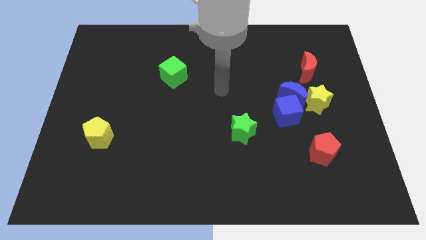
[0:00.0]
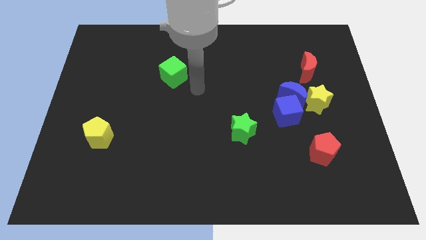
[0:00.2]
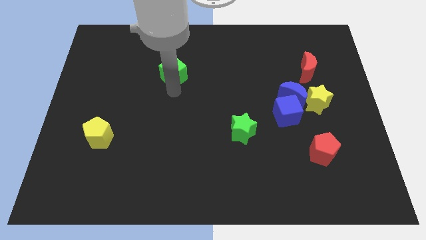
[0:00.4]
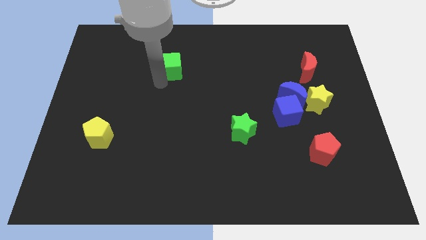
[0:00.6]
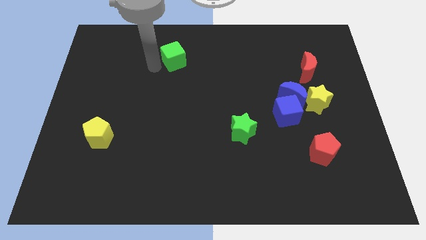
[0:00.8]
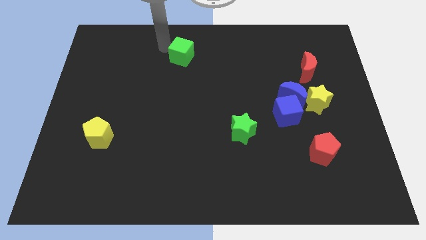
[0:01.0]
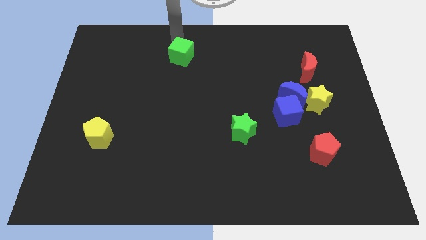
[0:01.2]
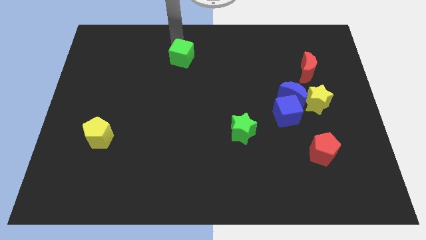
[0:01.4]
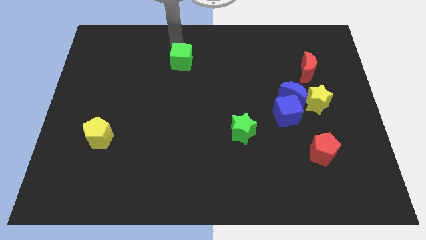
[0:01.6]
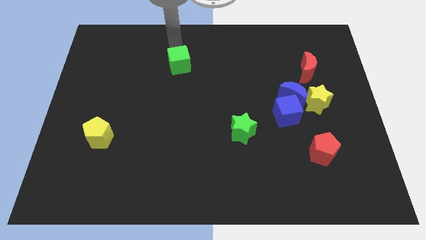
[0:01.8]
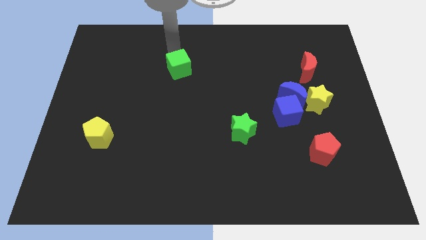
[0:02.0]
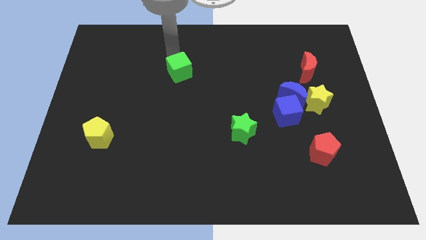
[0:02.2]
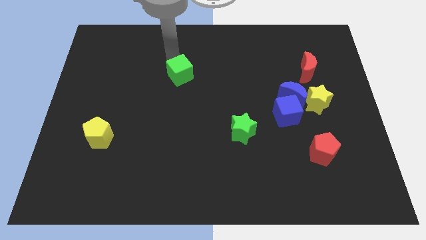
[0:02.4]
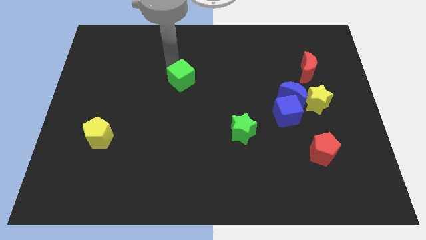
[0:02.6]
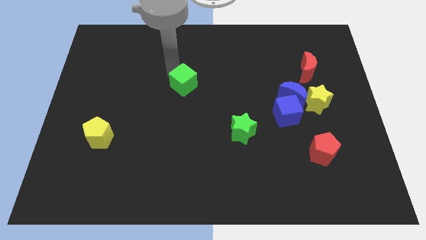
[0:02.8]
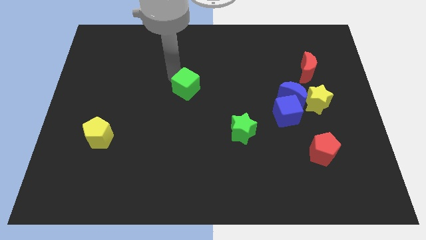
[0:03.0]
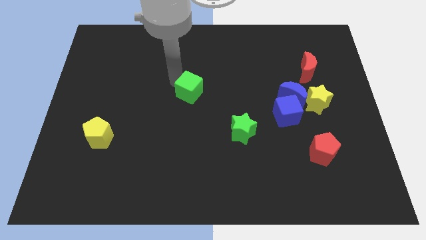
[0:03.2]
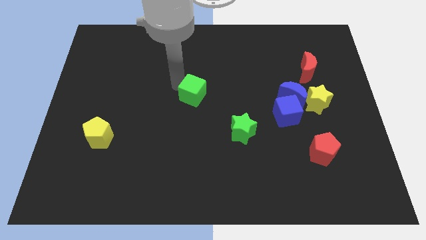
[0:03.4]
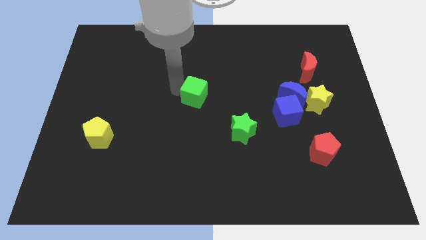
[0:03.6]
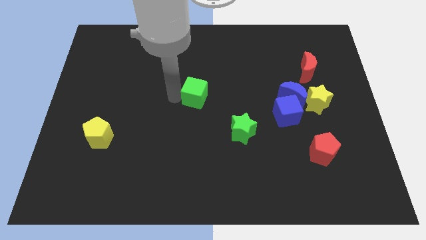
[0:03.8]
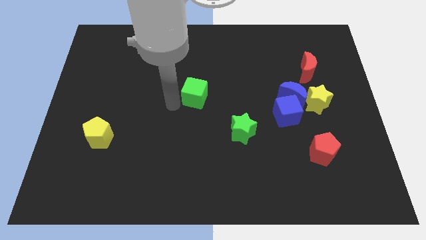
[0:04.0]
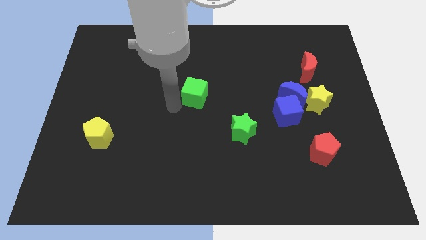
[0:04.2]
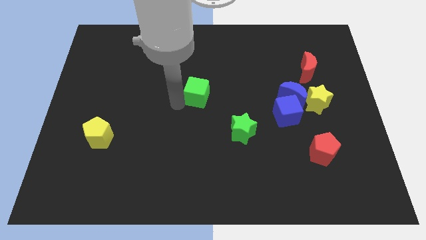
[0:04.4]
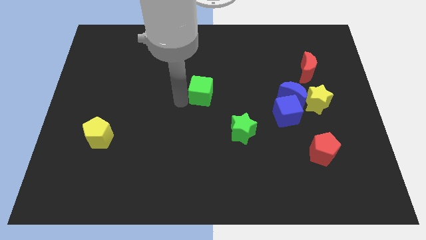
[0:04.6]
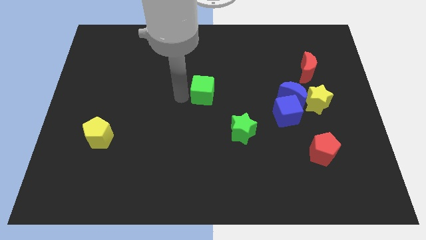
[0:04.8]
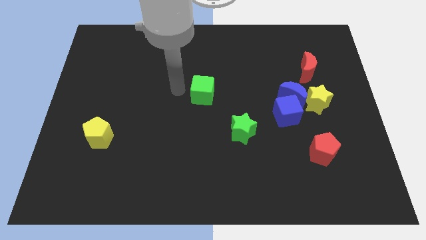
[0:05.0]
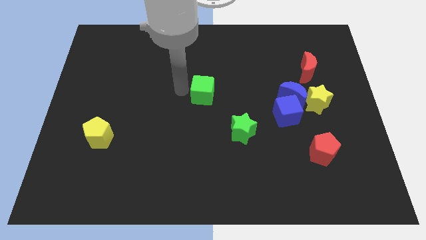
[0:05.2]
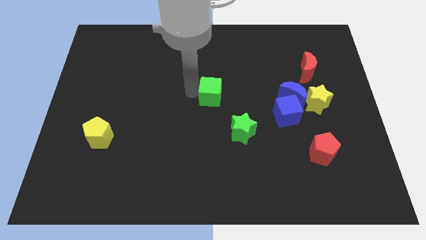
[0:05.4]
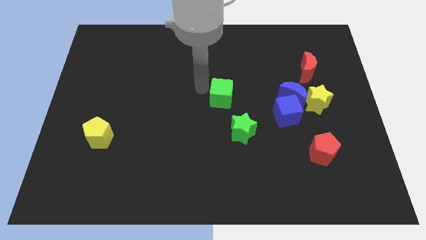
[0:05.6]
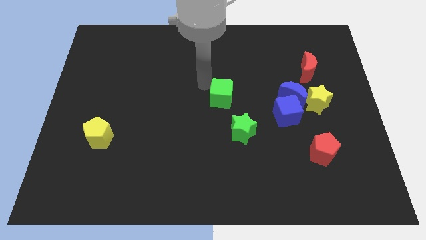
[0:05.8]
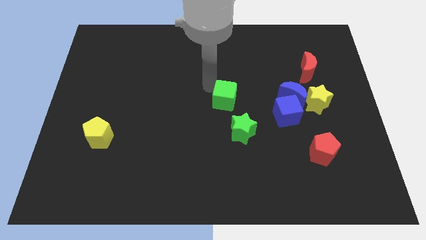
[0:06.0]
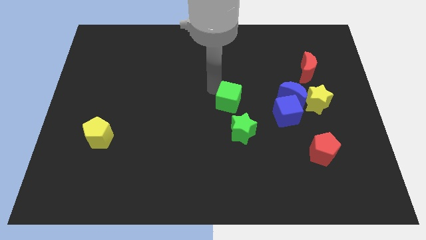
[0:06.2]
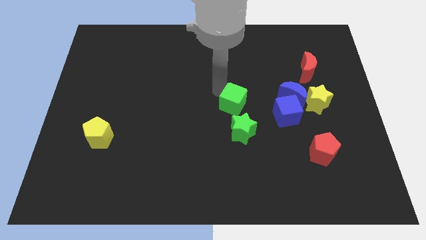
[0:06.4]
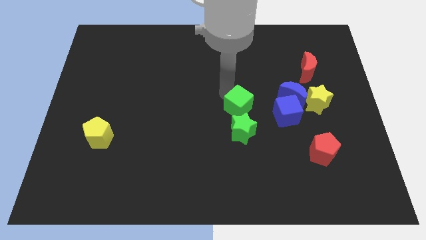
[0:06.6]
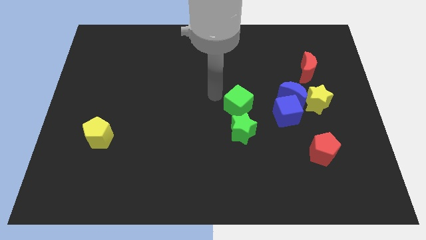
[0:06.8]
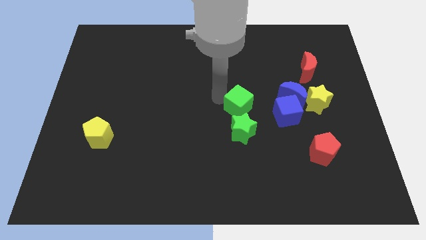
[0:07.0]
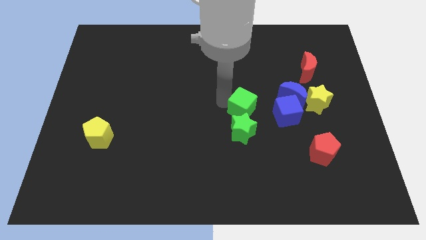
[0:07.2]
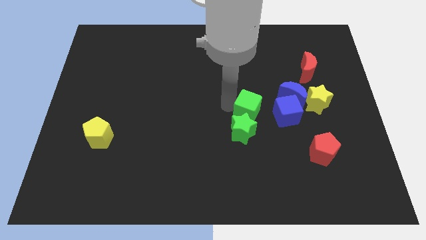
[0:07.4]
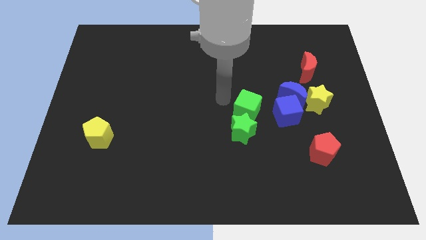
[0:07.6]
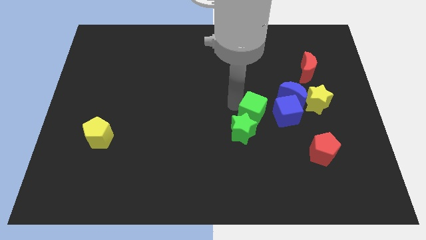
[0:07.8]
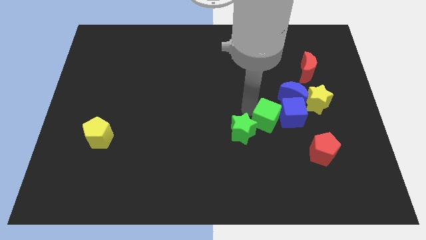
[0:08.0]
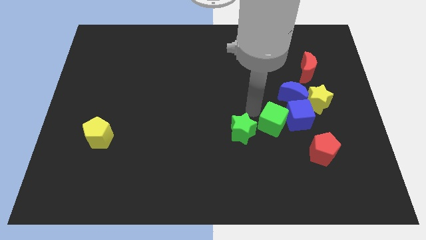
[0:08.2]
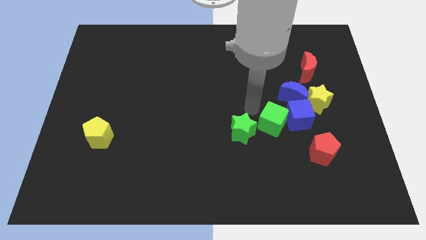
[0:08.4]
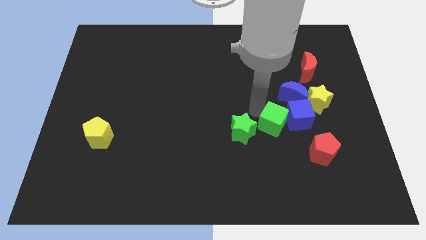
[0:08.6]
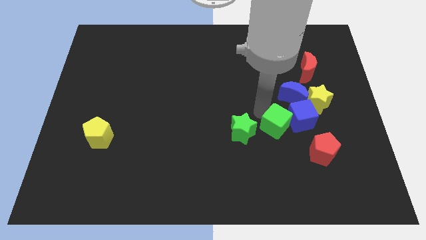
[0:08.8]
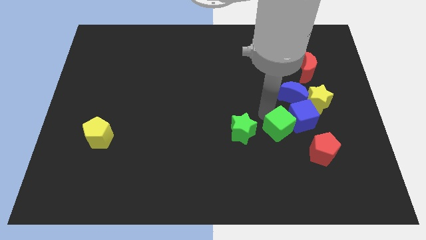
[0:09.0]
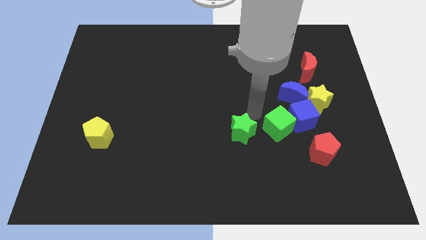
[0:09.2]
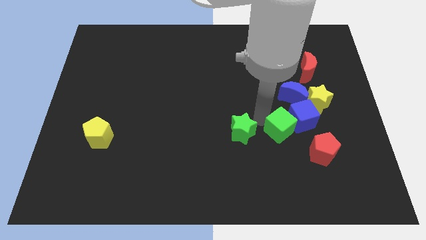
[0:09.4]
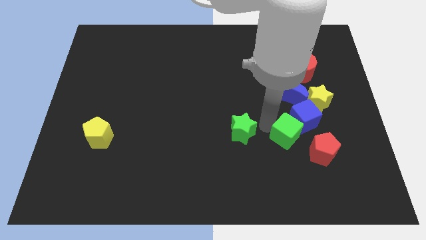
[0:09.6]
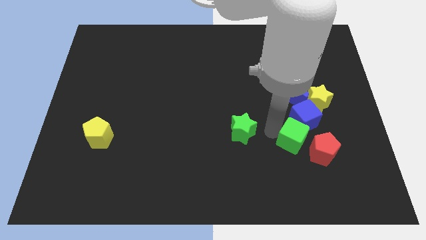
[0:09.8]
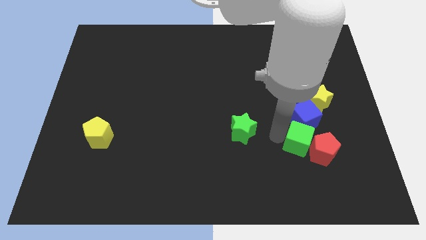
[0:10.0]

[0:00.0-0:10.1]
push the green cube next to the red pentagon

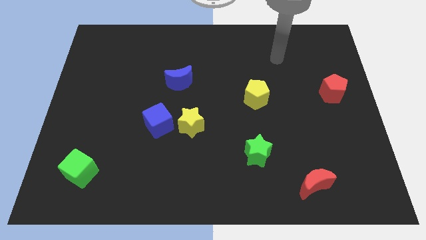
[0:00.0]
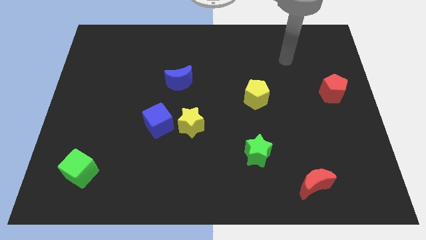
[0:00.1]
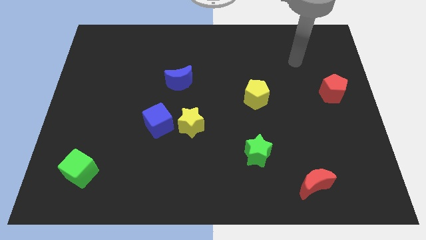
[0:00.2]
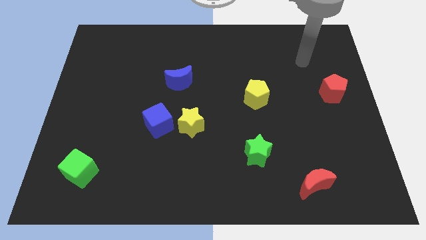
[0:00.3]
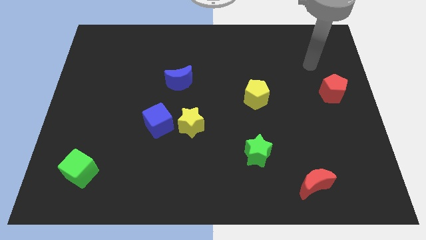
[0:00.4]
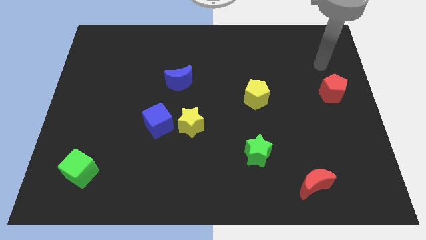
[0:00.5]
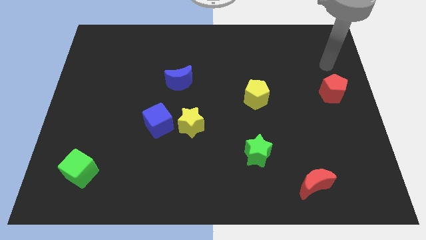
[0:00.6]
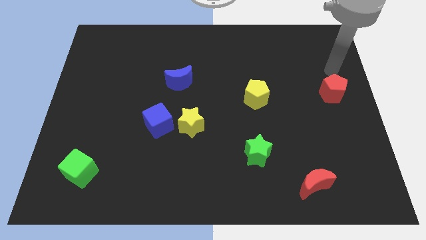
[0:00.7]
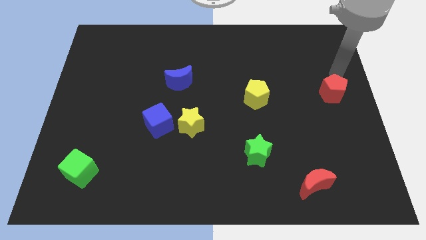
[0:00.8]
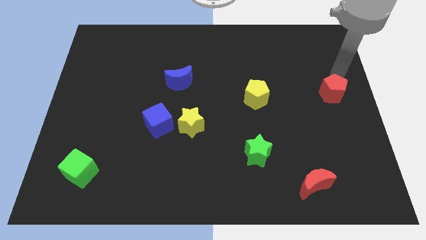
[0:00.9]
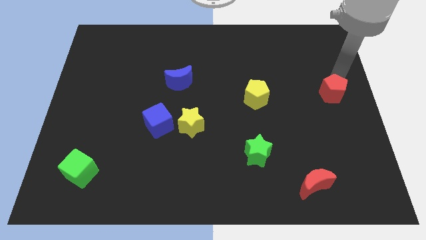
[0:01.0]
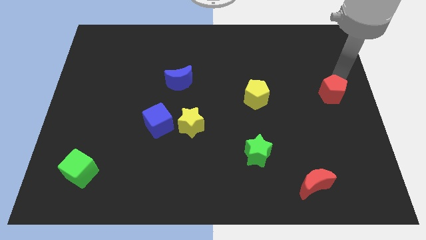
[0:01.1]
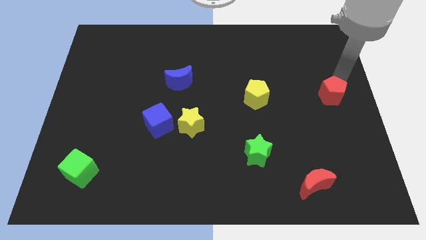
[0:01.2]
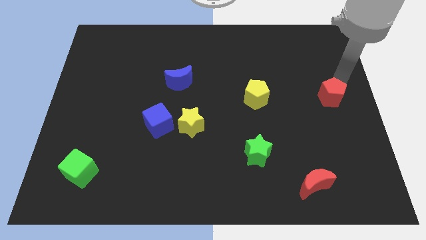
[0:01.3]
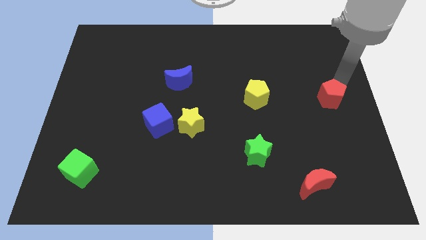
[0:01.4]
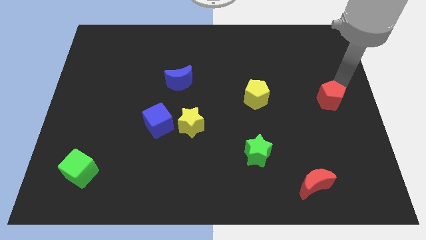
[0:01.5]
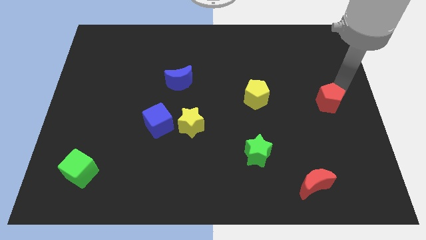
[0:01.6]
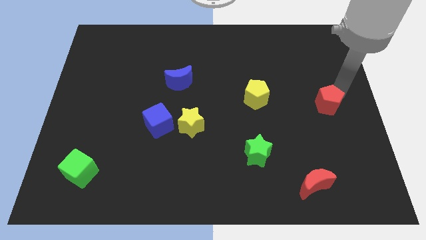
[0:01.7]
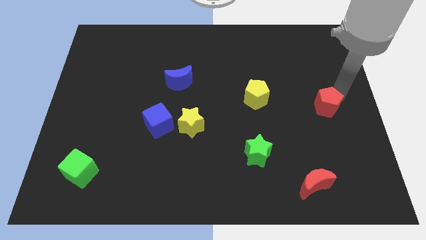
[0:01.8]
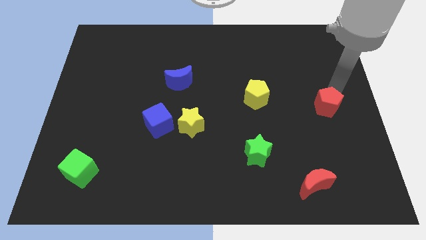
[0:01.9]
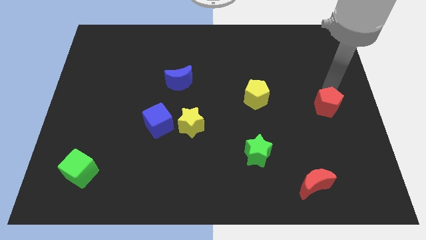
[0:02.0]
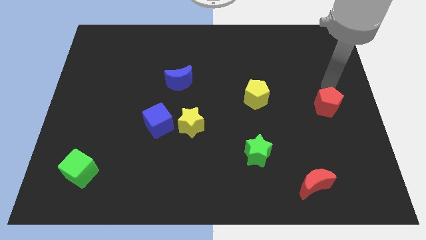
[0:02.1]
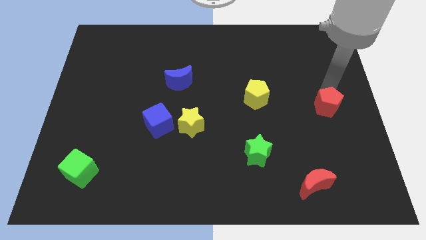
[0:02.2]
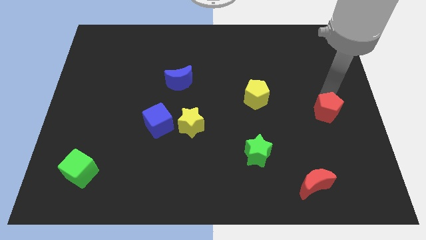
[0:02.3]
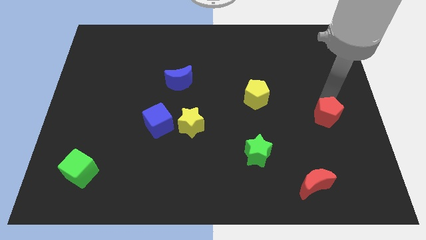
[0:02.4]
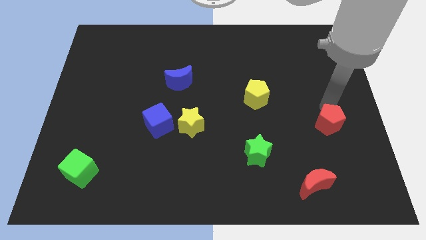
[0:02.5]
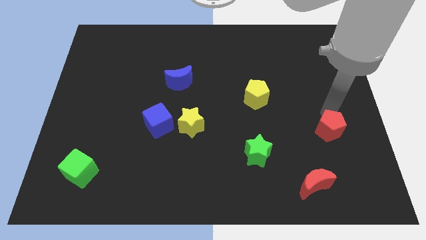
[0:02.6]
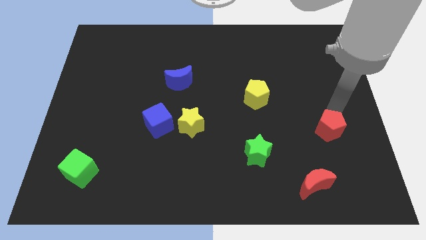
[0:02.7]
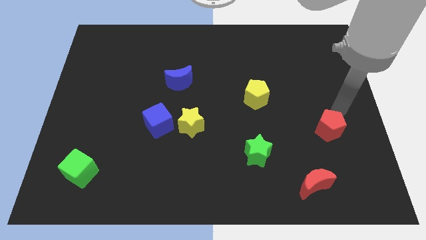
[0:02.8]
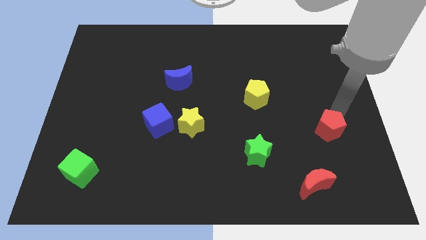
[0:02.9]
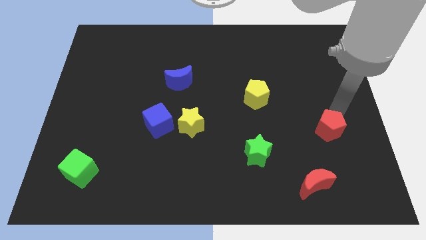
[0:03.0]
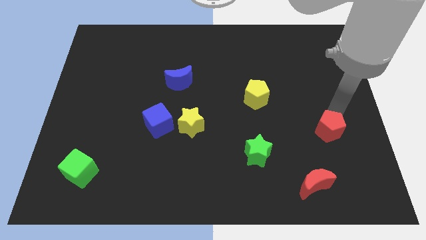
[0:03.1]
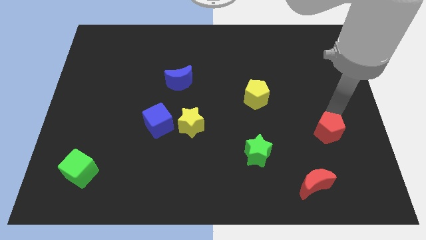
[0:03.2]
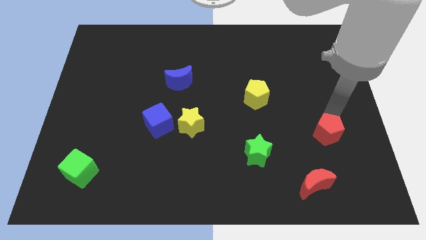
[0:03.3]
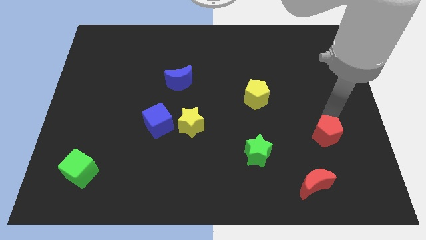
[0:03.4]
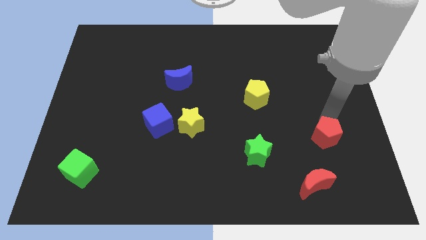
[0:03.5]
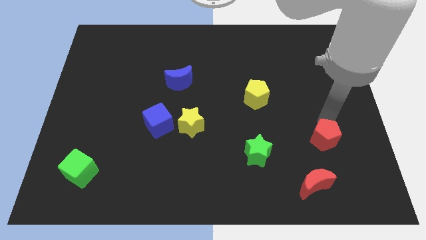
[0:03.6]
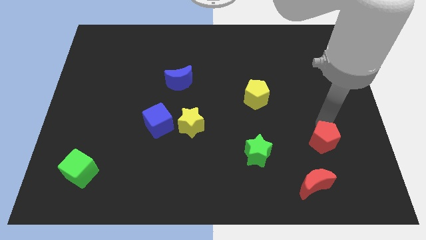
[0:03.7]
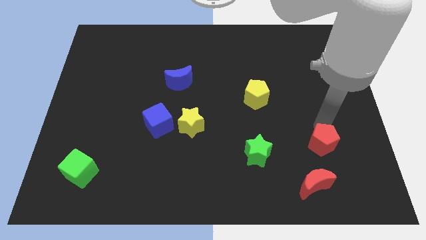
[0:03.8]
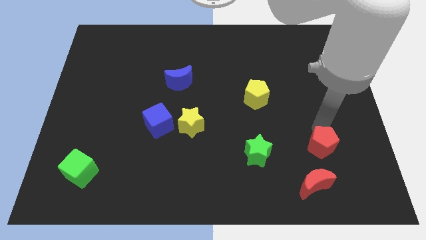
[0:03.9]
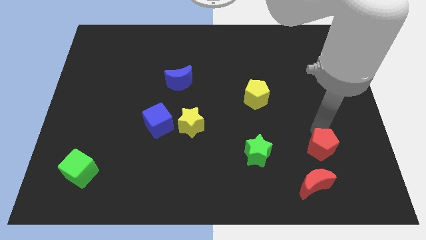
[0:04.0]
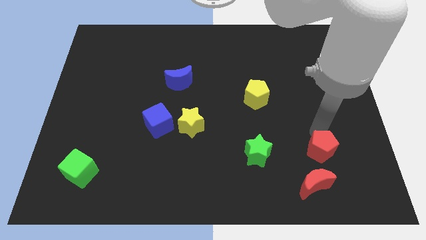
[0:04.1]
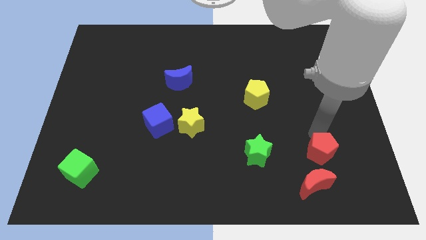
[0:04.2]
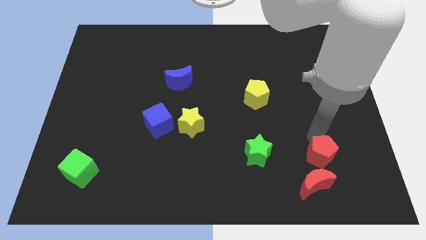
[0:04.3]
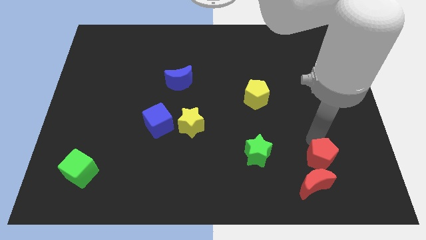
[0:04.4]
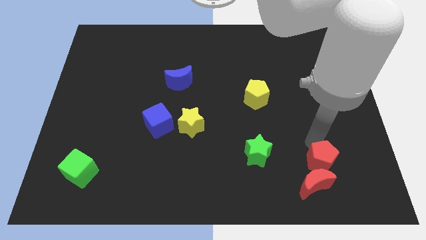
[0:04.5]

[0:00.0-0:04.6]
push the red pentagon close to the red moon
